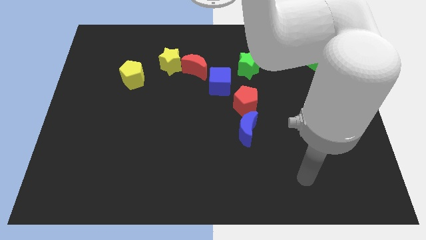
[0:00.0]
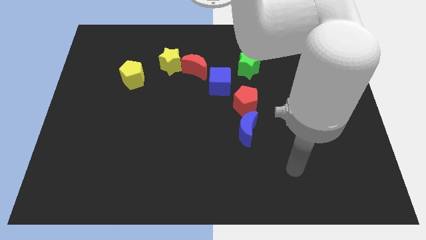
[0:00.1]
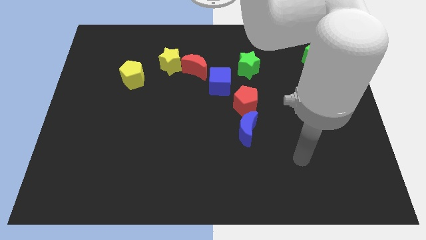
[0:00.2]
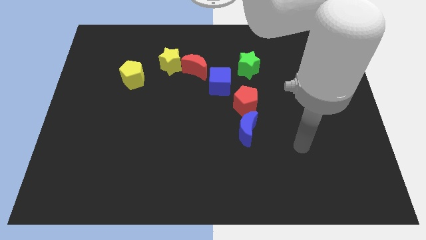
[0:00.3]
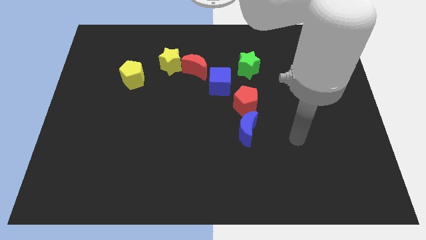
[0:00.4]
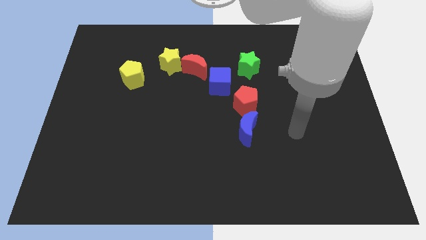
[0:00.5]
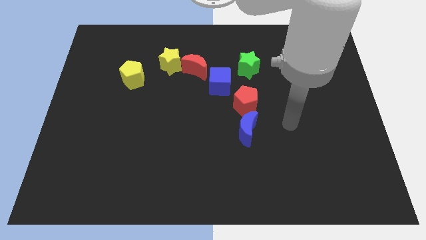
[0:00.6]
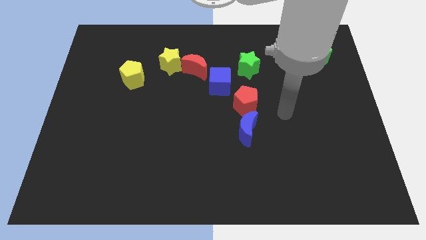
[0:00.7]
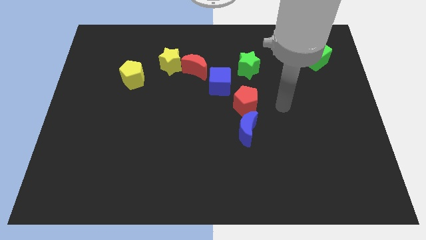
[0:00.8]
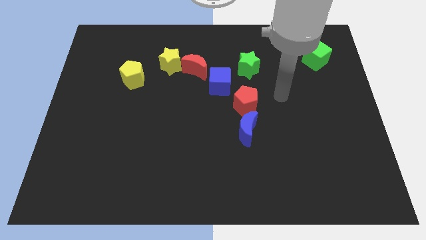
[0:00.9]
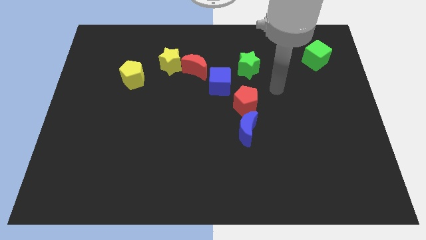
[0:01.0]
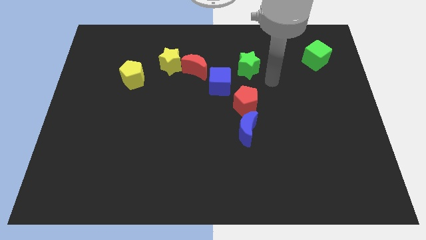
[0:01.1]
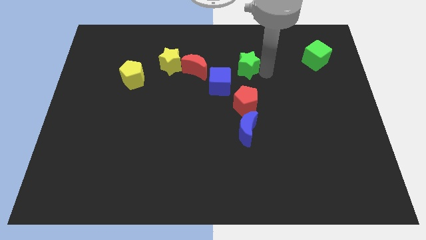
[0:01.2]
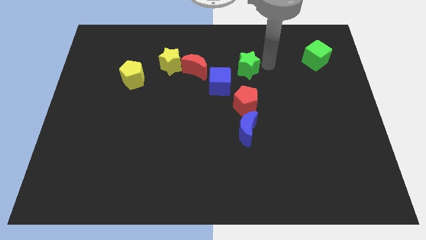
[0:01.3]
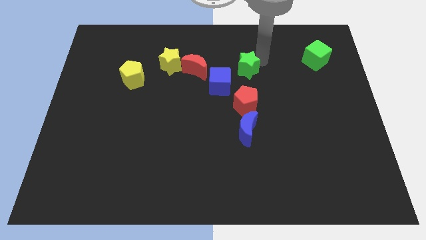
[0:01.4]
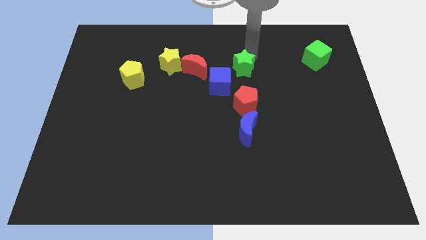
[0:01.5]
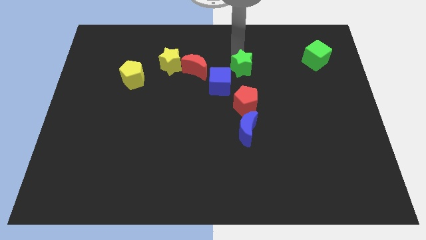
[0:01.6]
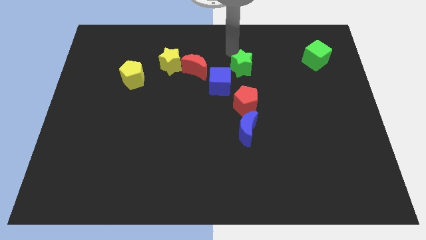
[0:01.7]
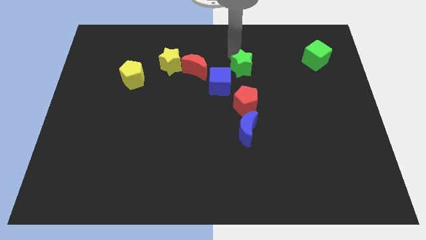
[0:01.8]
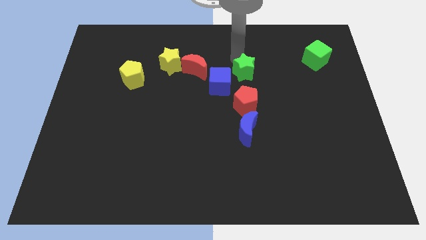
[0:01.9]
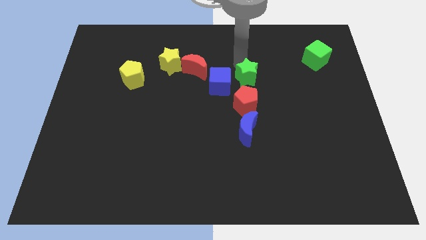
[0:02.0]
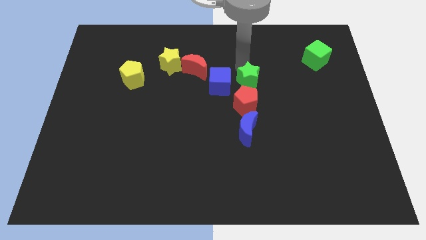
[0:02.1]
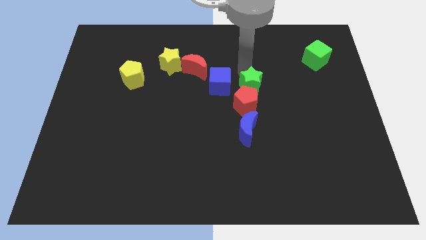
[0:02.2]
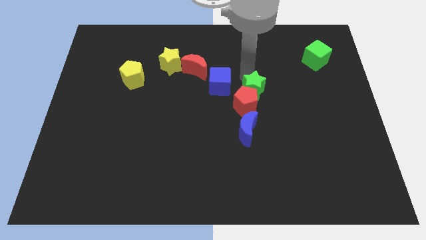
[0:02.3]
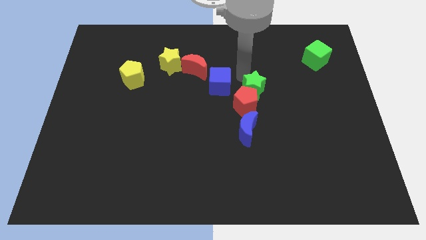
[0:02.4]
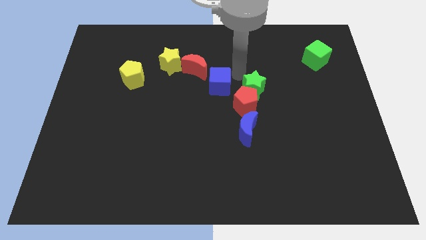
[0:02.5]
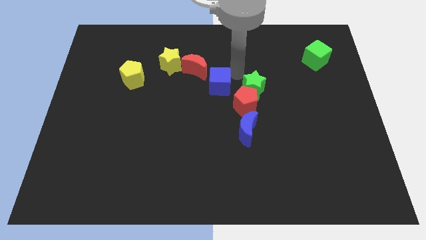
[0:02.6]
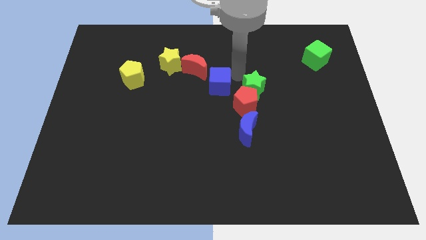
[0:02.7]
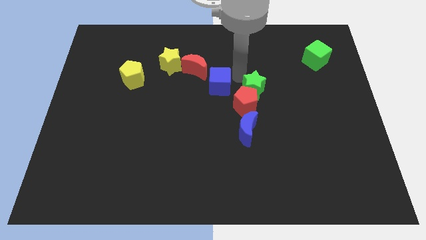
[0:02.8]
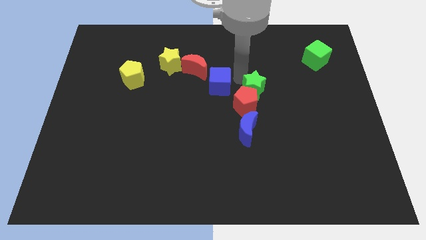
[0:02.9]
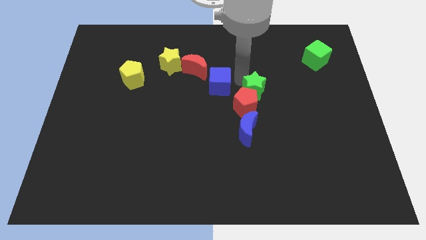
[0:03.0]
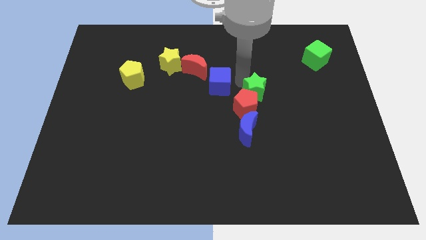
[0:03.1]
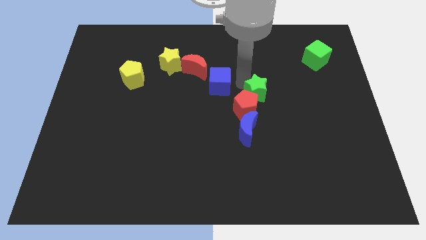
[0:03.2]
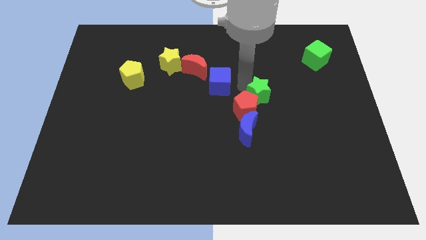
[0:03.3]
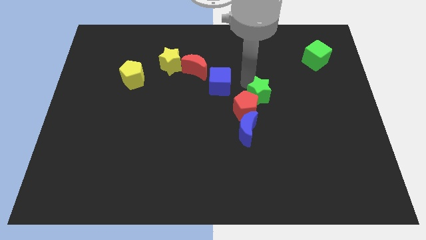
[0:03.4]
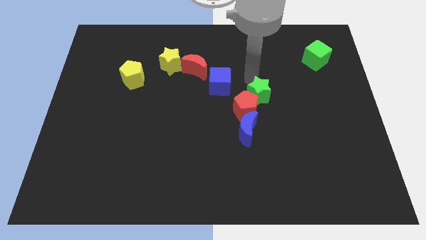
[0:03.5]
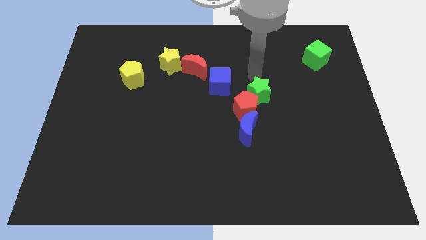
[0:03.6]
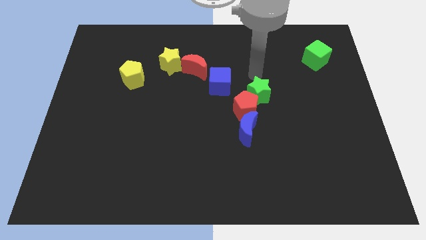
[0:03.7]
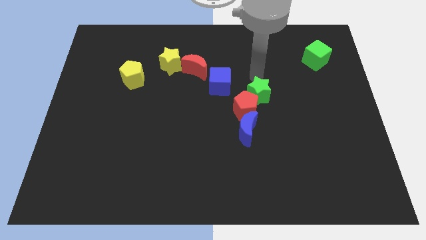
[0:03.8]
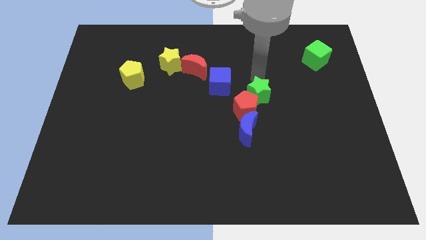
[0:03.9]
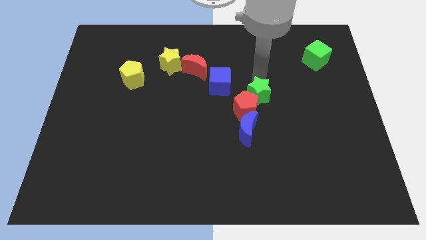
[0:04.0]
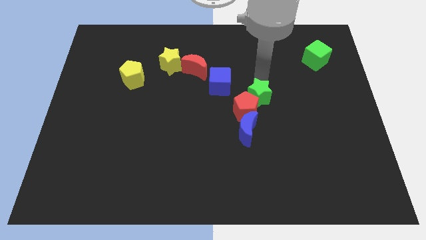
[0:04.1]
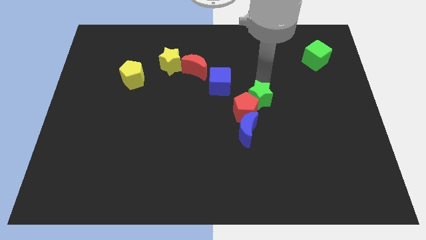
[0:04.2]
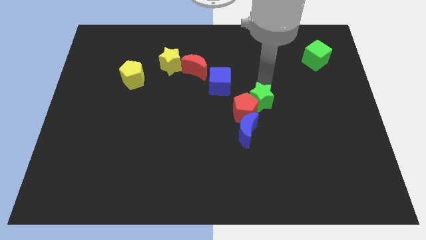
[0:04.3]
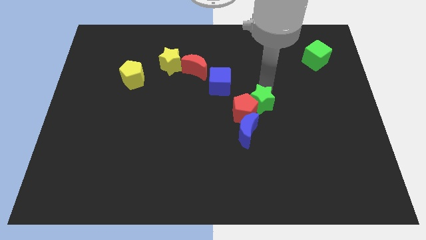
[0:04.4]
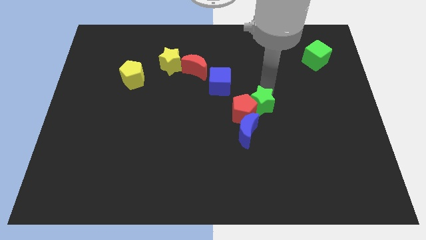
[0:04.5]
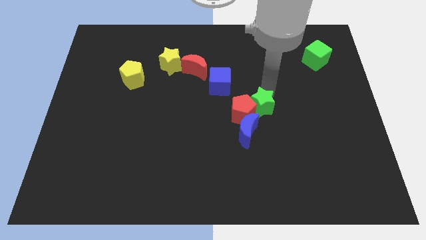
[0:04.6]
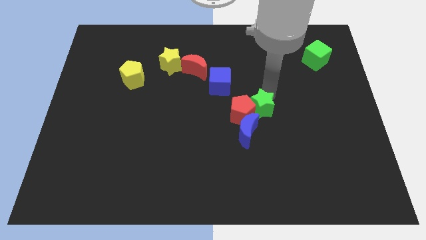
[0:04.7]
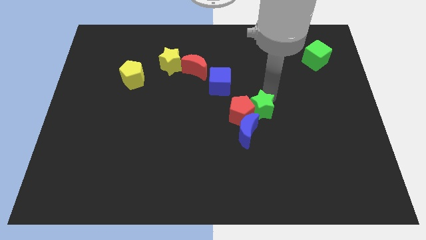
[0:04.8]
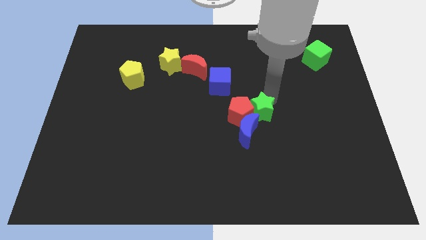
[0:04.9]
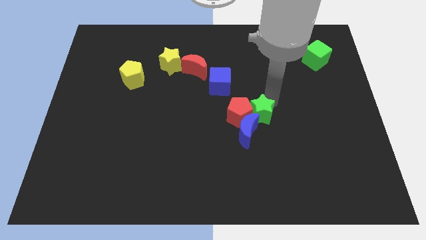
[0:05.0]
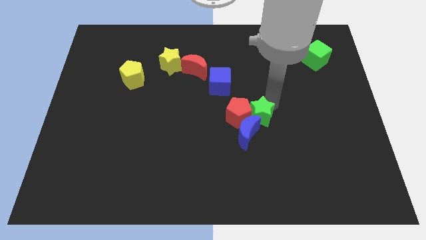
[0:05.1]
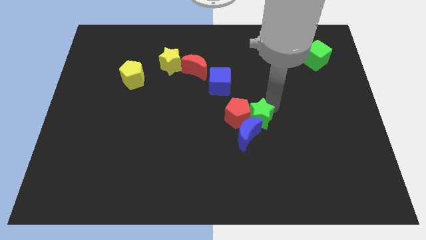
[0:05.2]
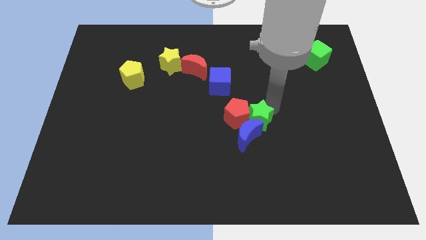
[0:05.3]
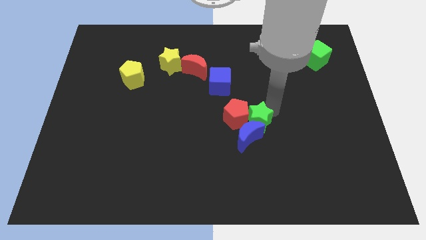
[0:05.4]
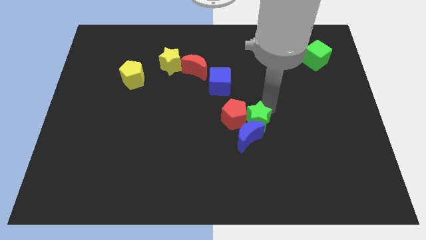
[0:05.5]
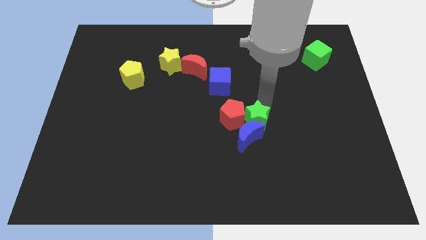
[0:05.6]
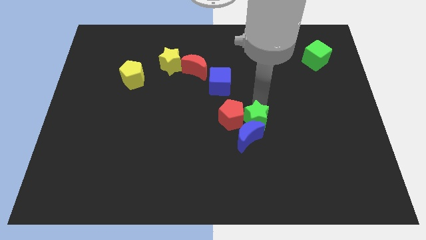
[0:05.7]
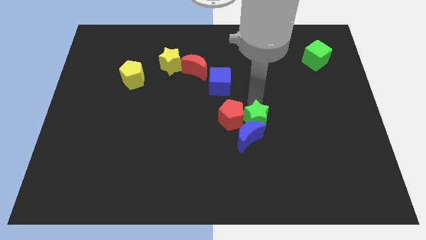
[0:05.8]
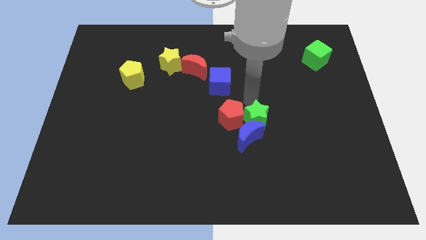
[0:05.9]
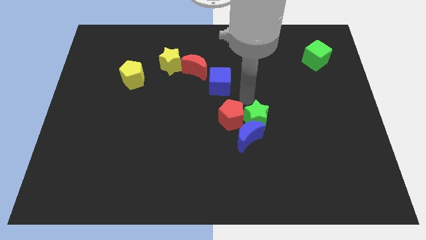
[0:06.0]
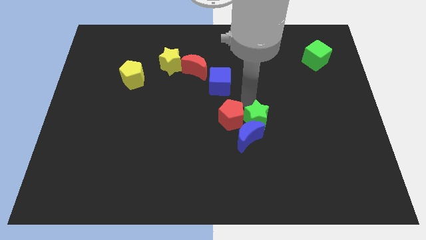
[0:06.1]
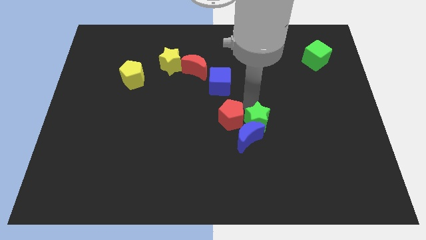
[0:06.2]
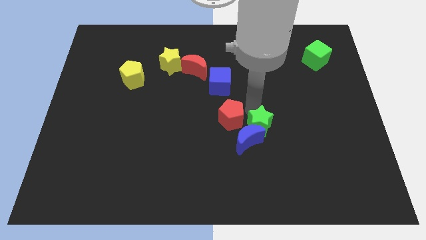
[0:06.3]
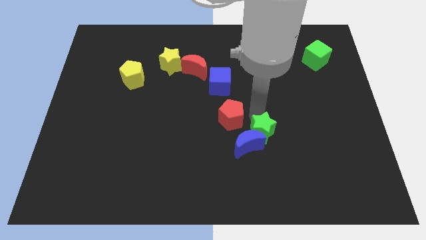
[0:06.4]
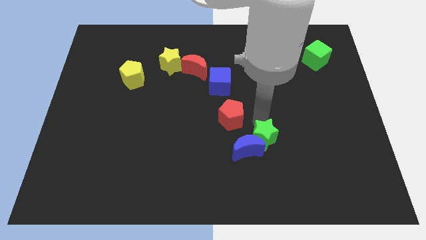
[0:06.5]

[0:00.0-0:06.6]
push the green star downwards

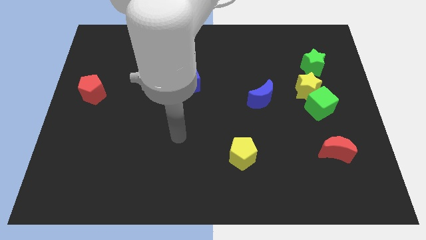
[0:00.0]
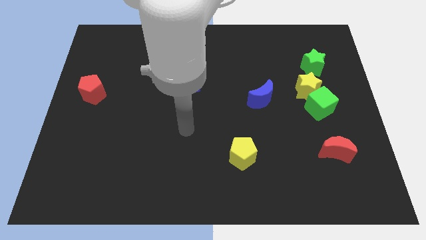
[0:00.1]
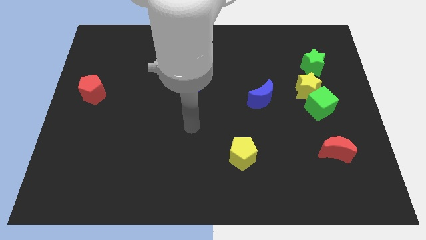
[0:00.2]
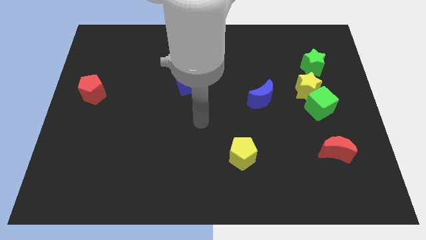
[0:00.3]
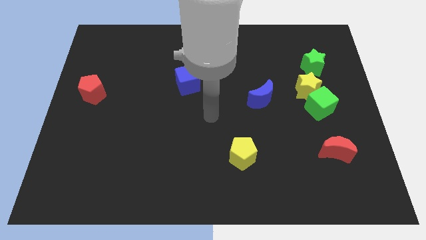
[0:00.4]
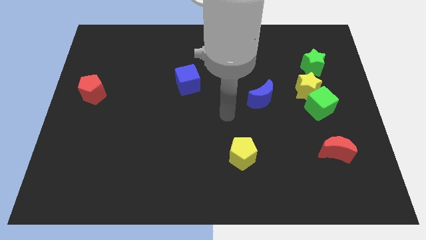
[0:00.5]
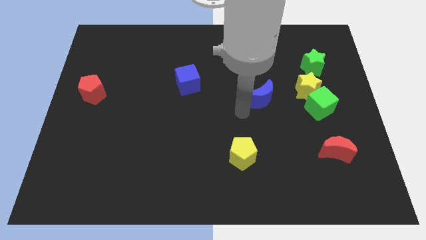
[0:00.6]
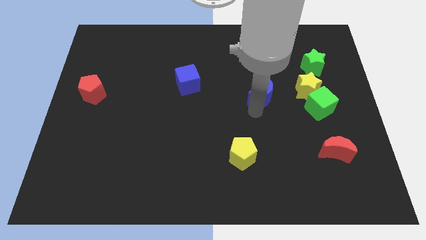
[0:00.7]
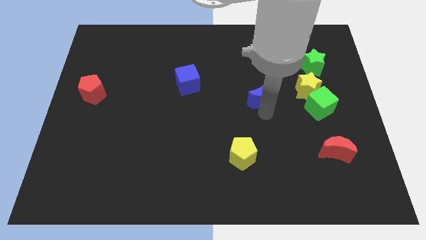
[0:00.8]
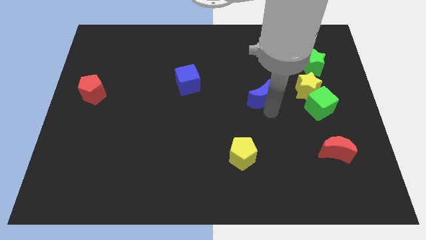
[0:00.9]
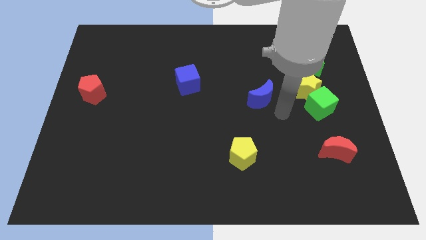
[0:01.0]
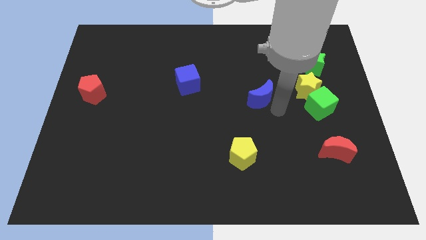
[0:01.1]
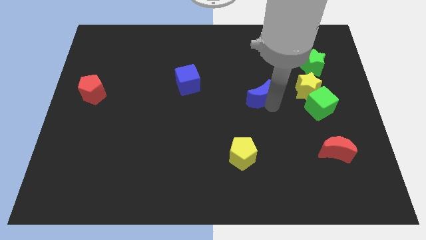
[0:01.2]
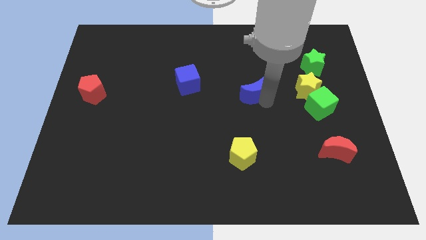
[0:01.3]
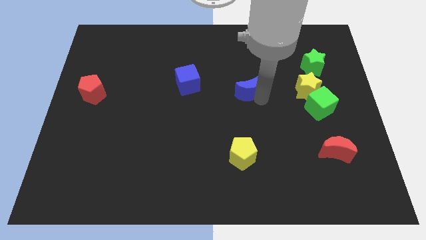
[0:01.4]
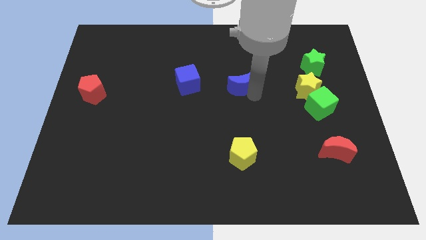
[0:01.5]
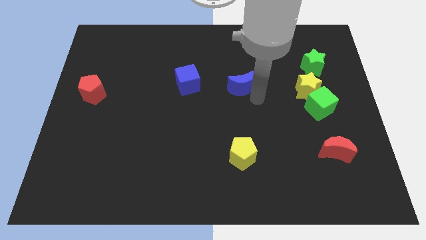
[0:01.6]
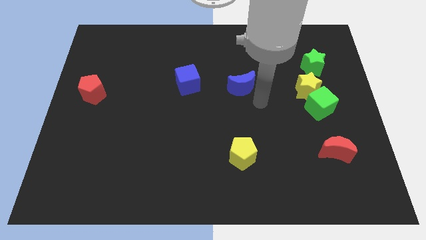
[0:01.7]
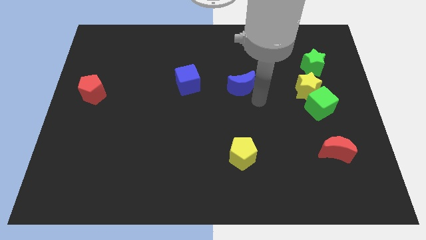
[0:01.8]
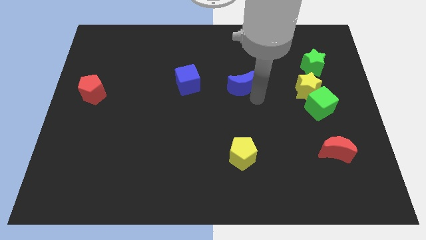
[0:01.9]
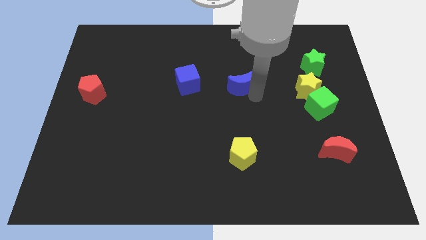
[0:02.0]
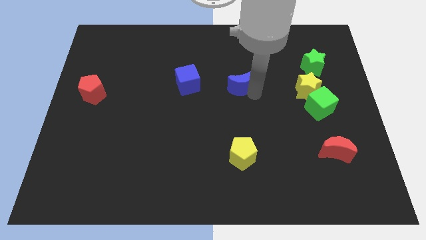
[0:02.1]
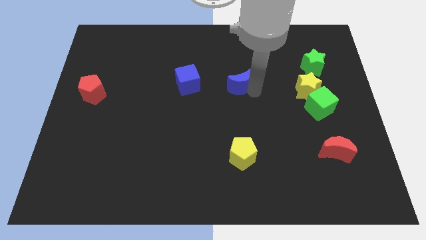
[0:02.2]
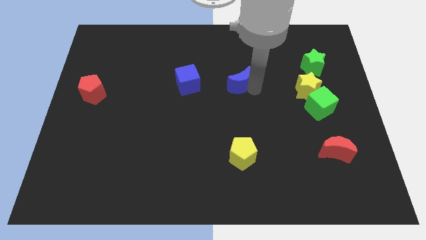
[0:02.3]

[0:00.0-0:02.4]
move the blue moon upwards and left diagonally slightly
